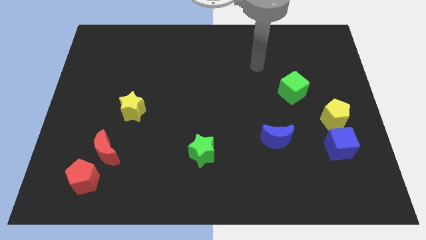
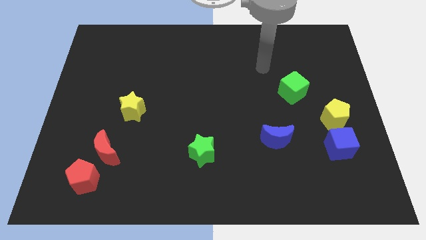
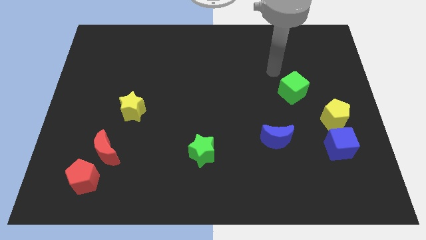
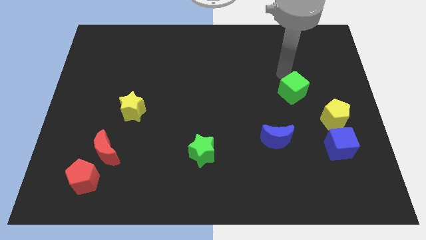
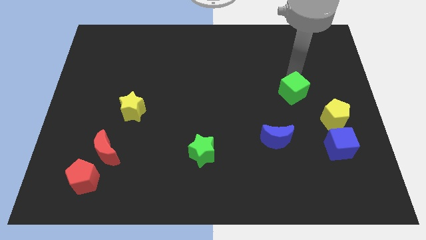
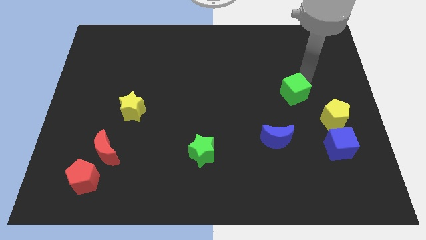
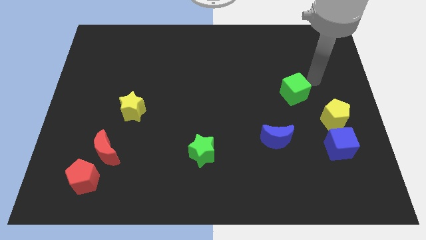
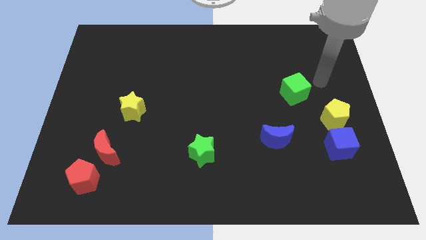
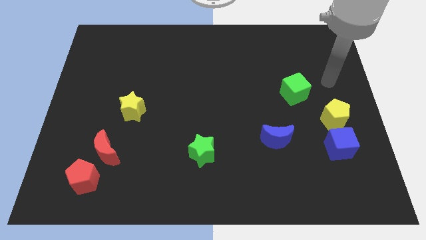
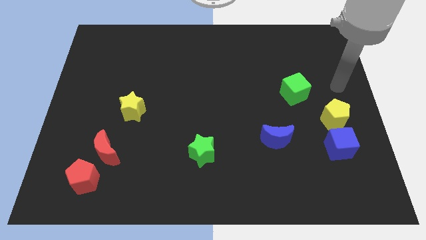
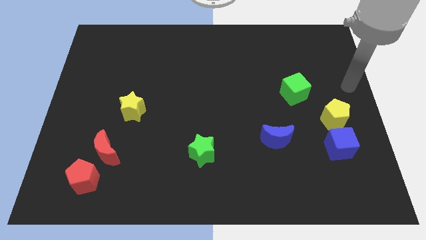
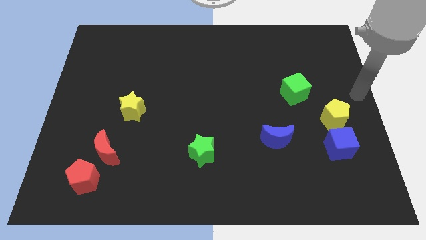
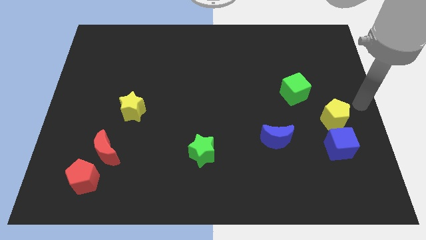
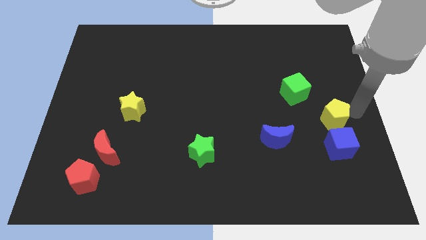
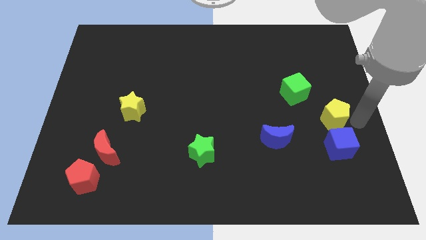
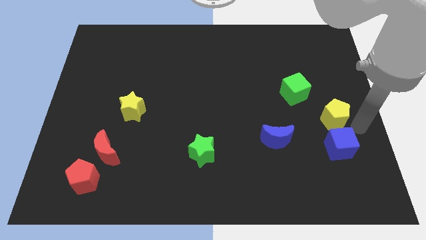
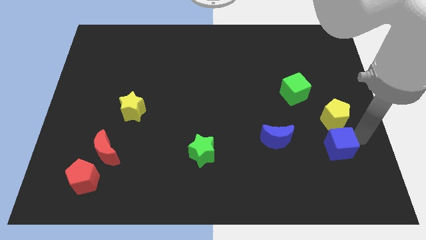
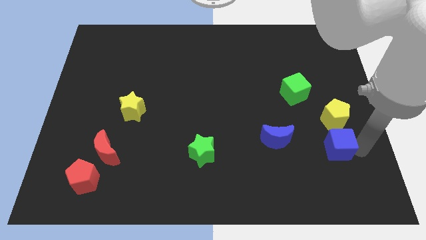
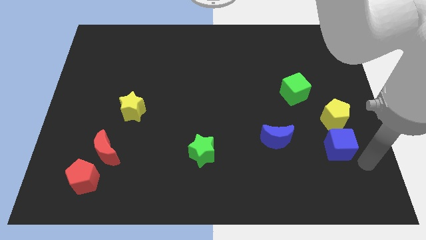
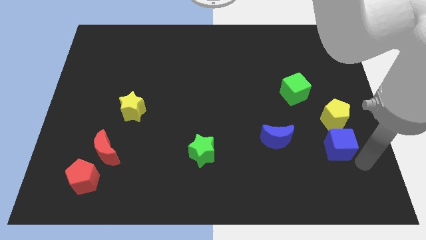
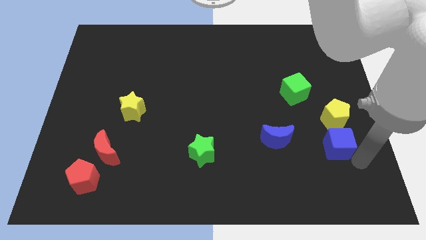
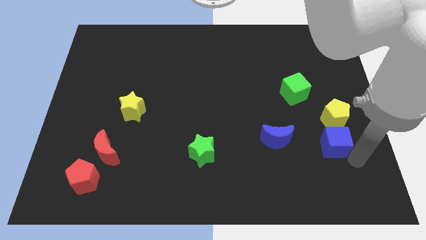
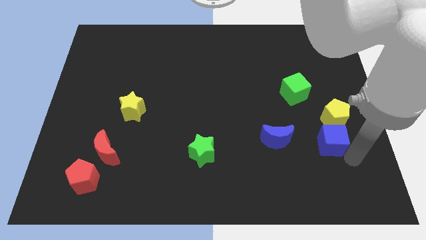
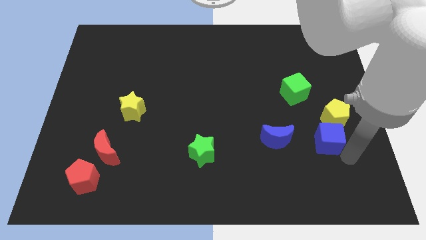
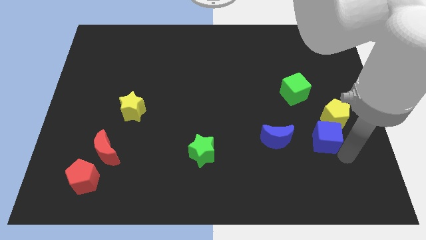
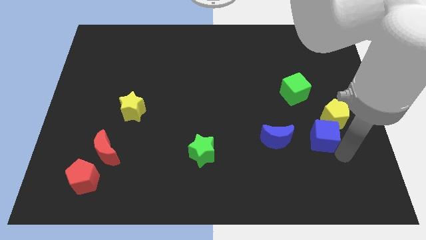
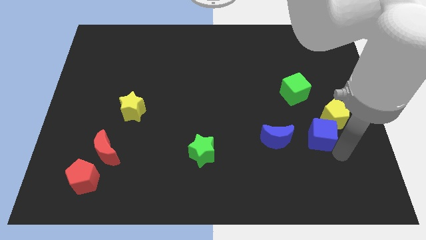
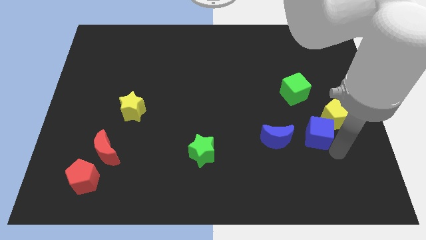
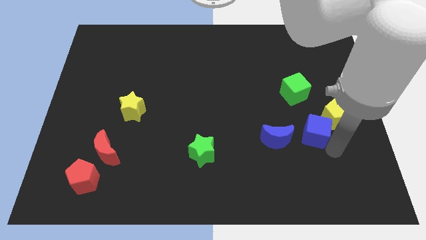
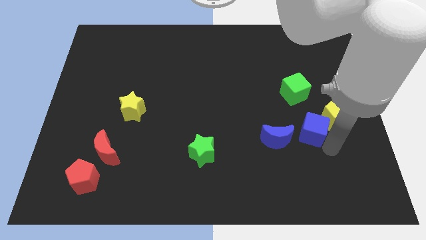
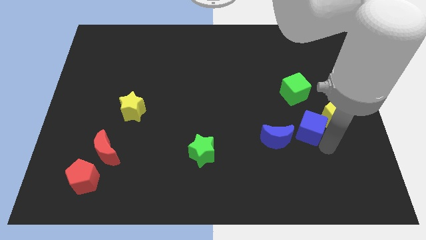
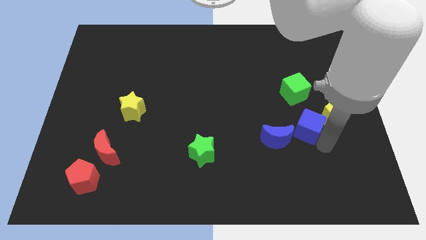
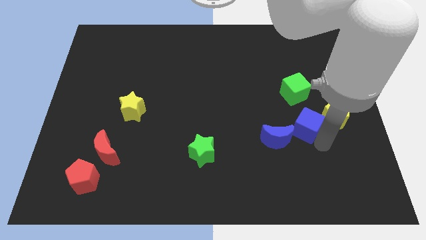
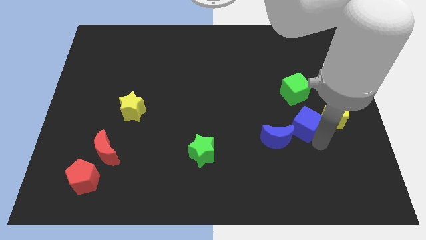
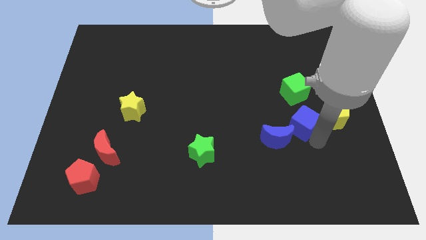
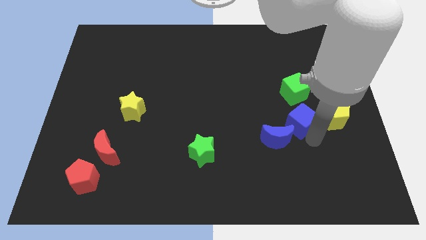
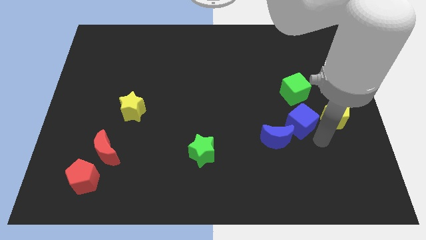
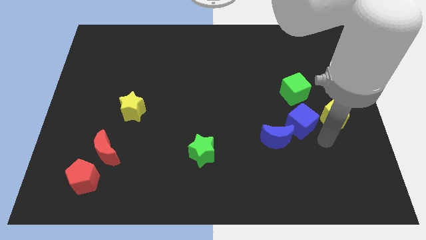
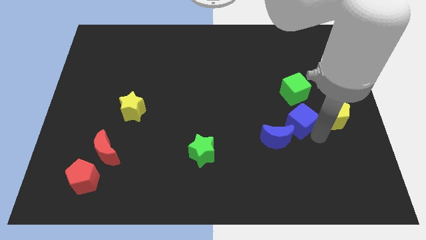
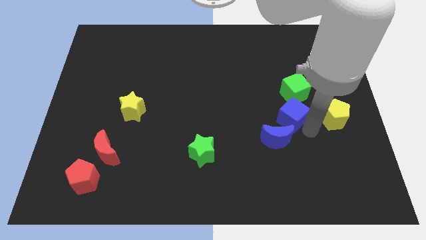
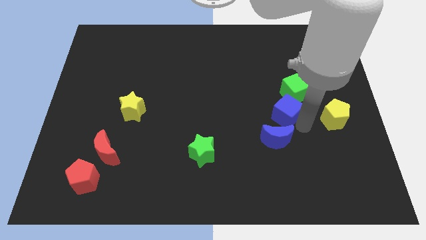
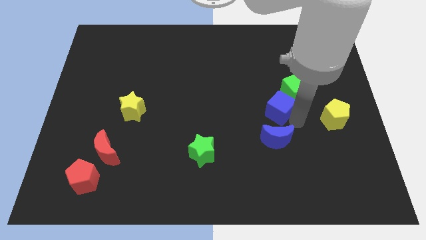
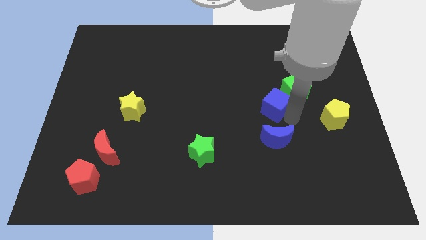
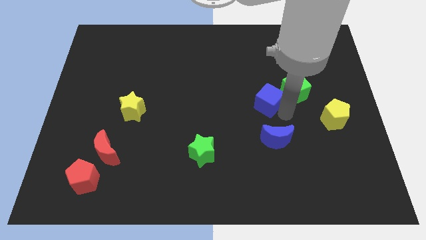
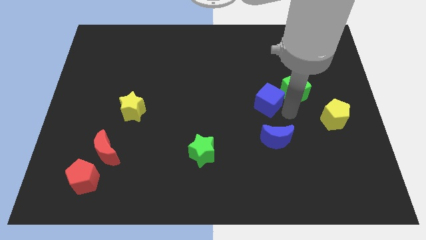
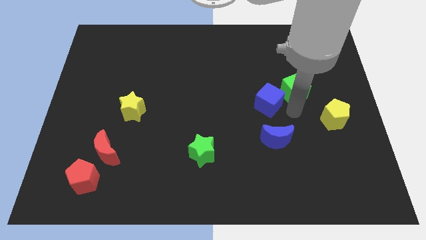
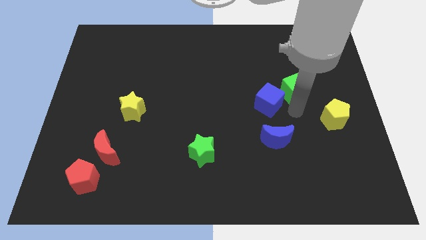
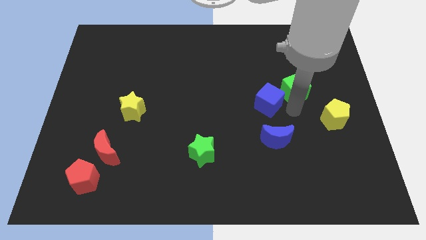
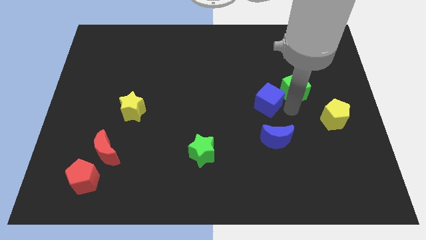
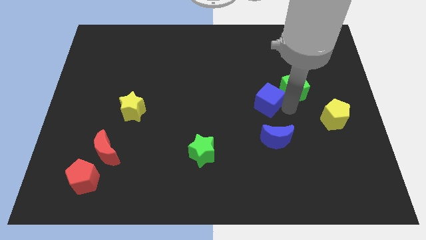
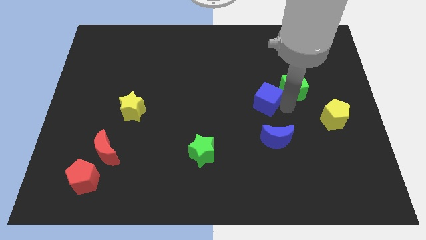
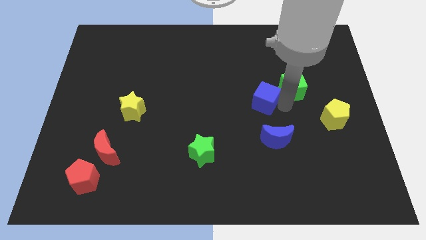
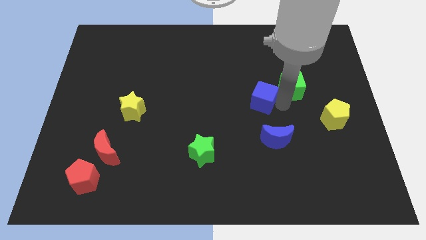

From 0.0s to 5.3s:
slide the blue cube diagonally upwards and left

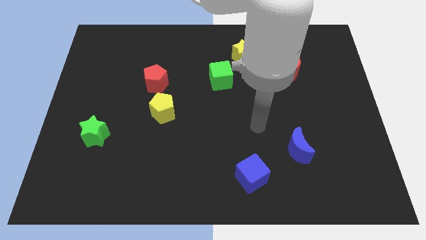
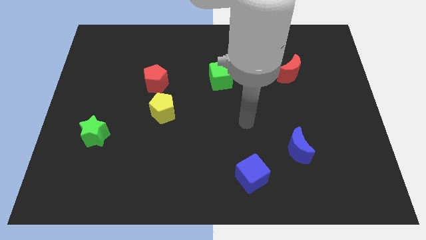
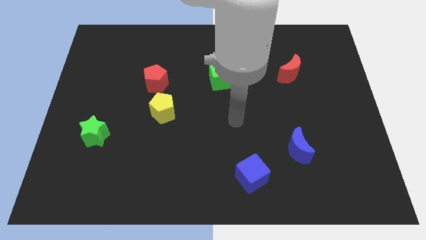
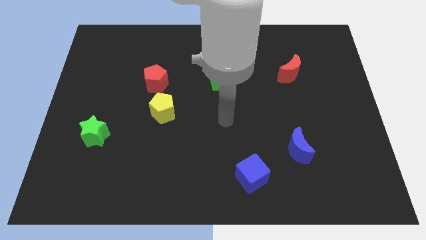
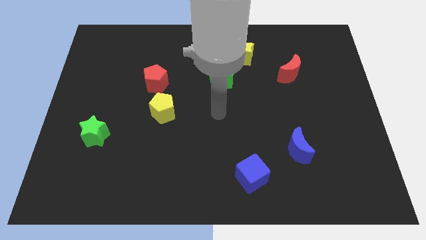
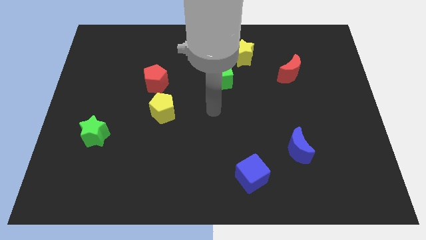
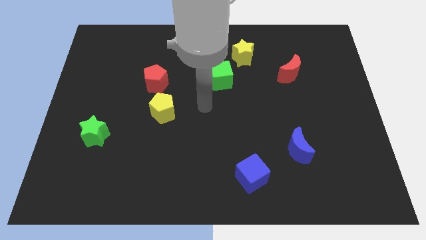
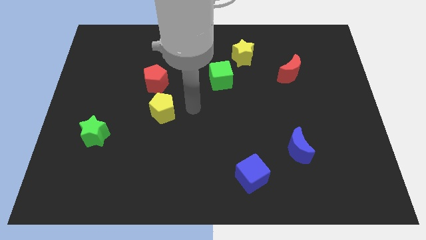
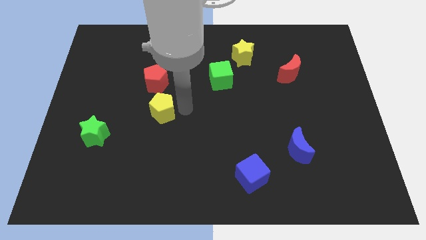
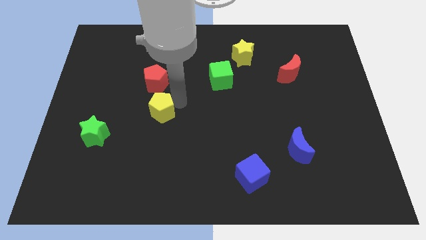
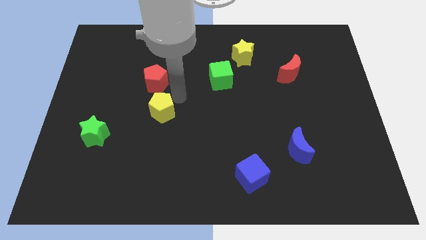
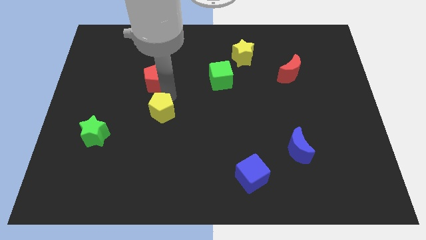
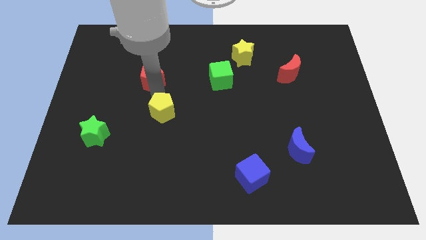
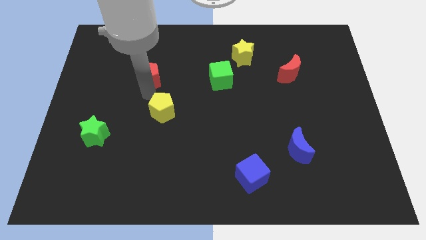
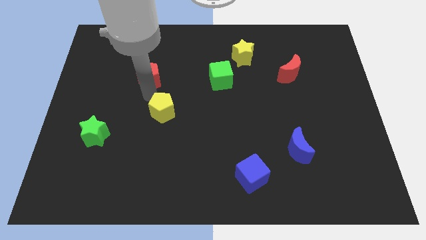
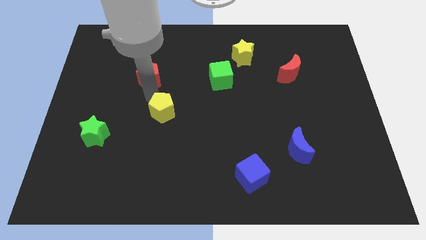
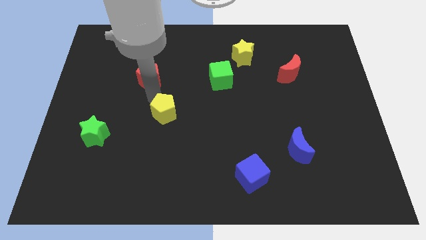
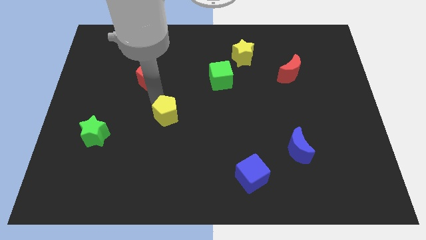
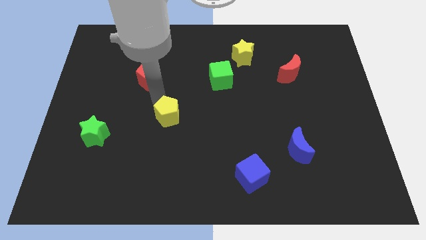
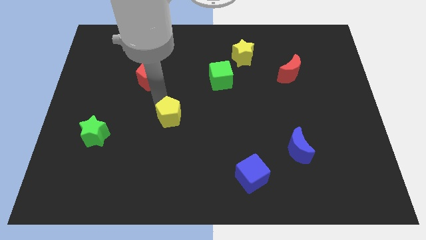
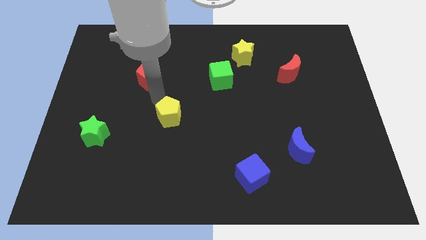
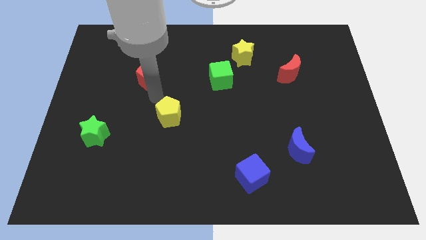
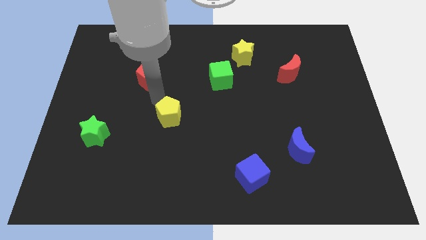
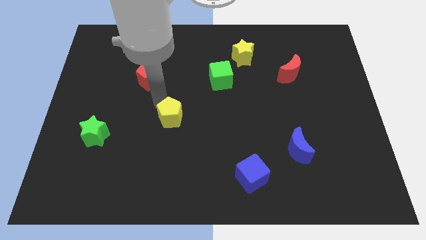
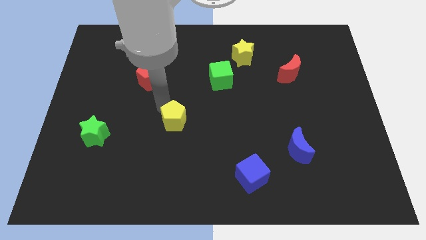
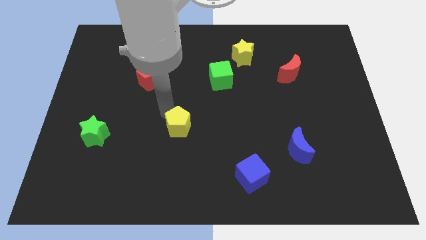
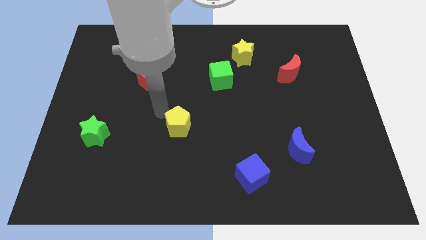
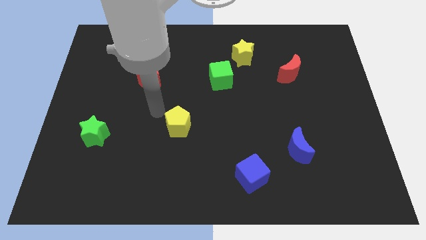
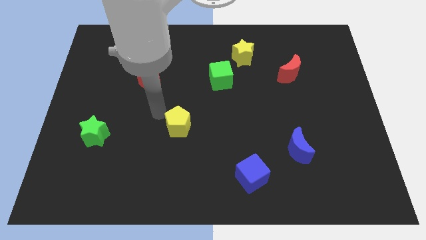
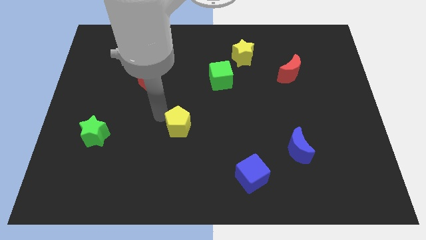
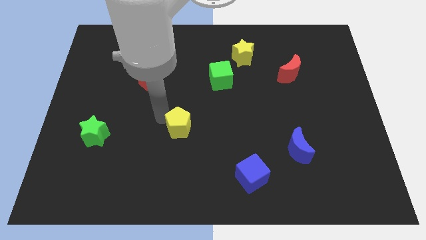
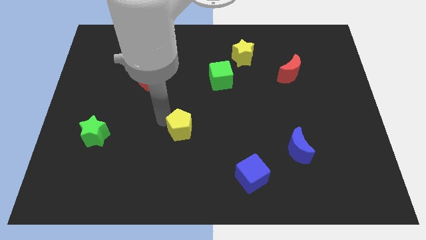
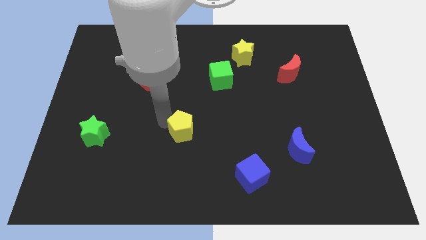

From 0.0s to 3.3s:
move the yellow pentagon slightly diagonally downwards and to the right
